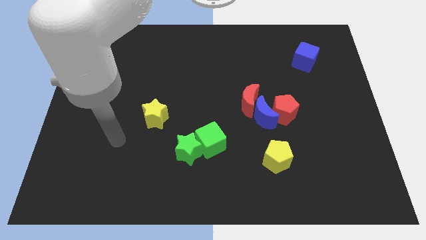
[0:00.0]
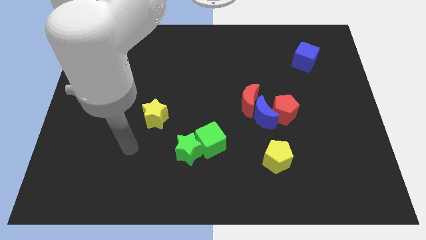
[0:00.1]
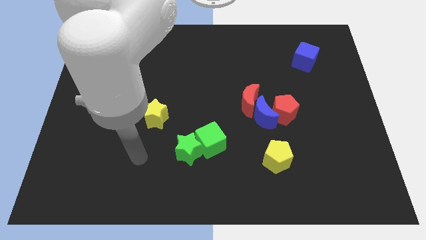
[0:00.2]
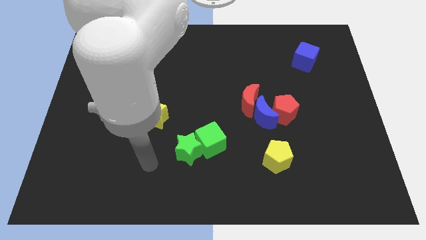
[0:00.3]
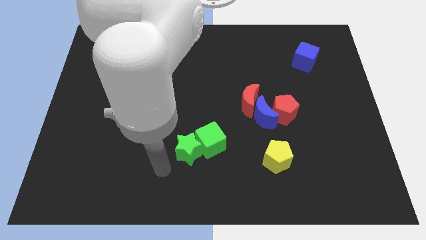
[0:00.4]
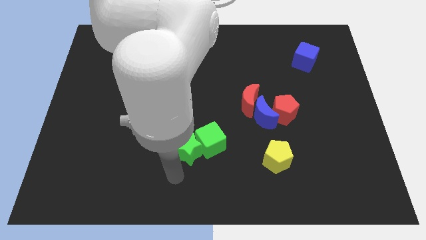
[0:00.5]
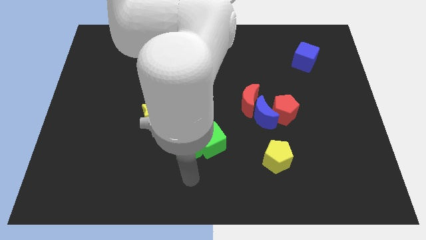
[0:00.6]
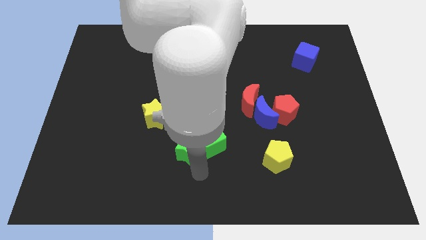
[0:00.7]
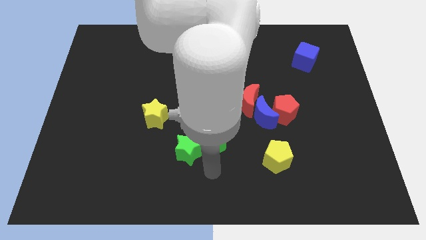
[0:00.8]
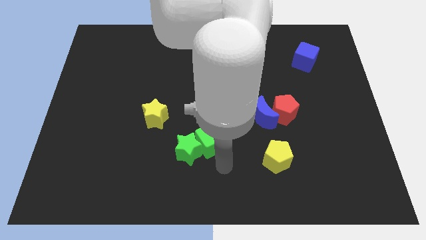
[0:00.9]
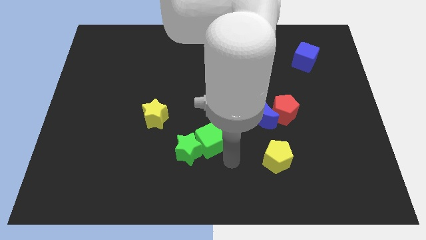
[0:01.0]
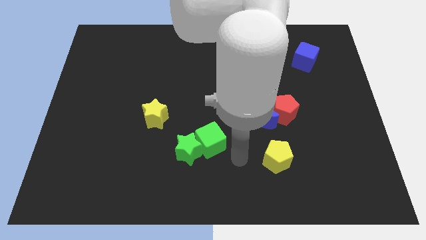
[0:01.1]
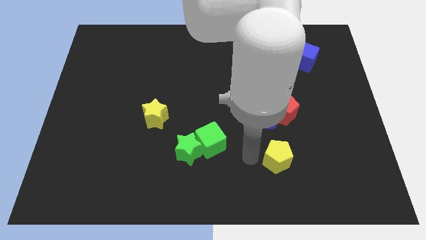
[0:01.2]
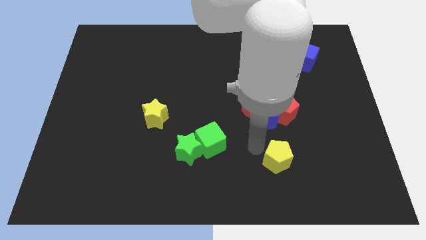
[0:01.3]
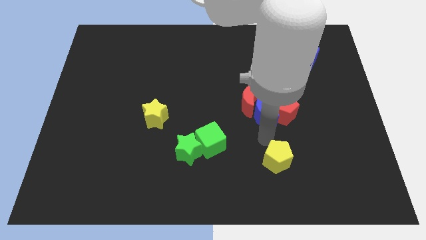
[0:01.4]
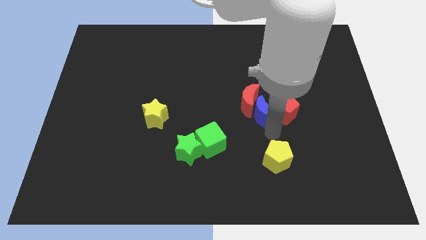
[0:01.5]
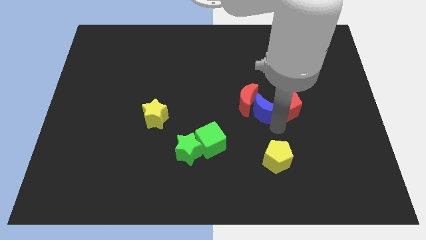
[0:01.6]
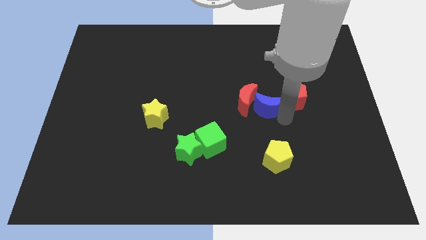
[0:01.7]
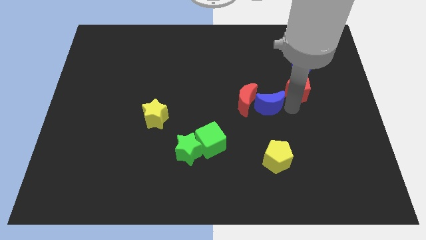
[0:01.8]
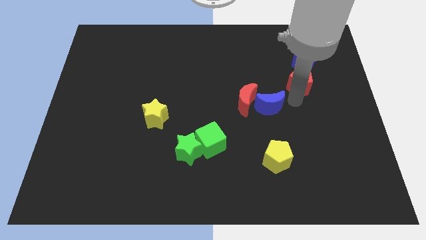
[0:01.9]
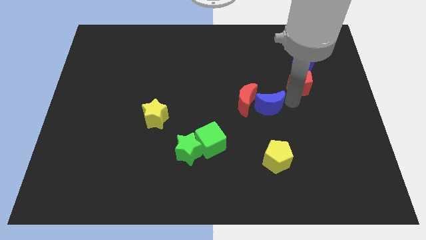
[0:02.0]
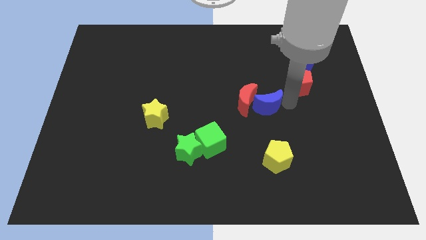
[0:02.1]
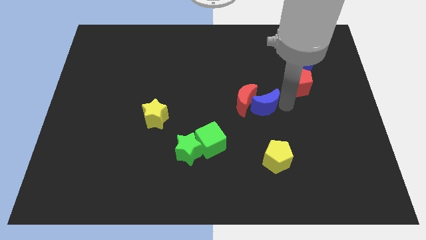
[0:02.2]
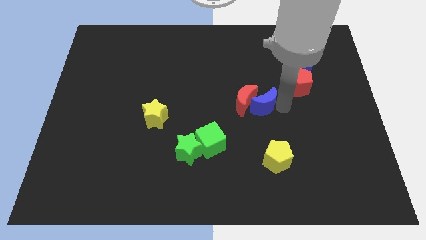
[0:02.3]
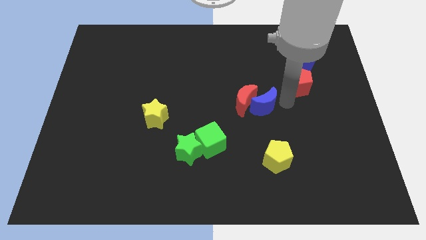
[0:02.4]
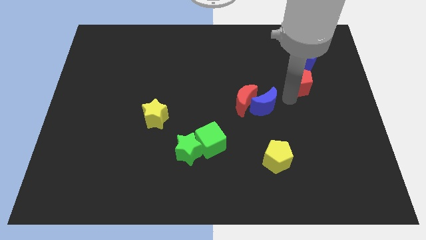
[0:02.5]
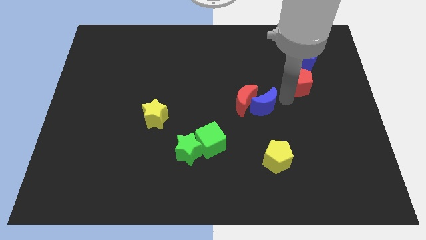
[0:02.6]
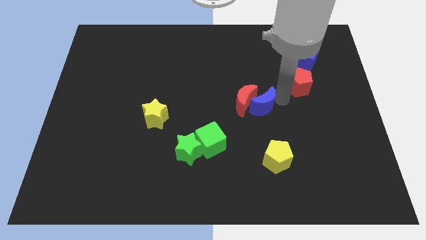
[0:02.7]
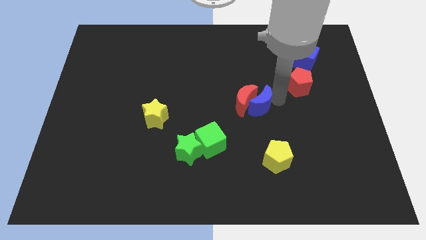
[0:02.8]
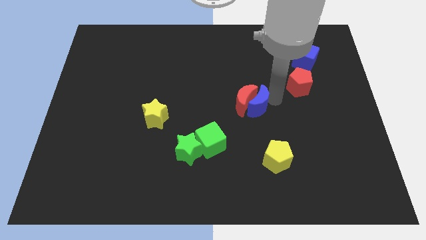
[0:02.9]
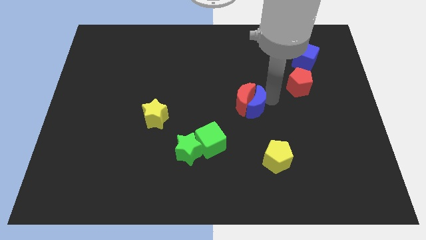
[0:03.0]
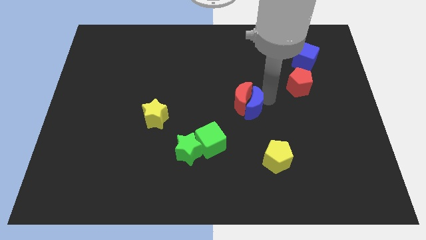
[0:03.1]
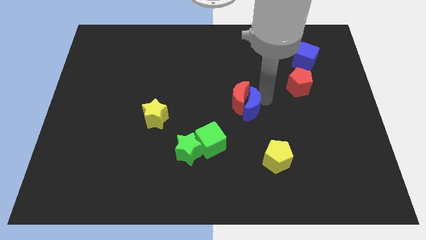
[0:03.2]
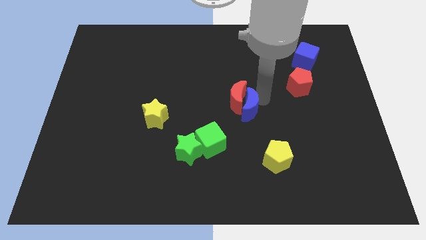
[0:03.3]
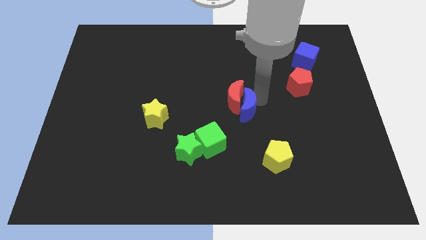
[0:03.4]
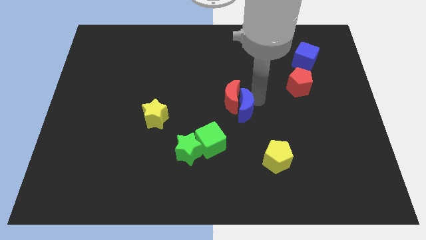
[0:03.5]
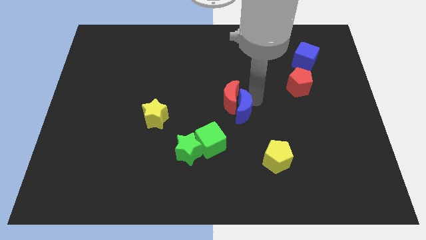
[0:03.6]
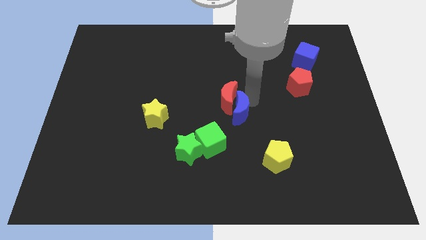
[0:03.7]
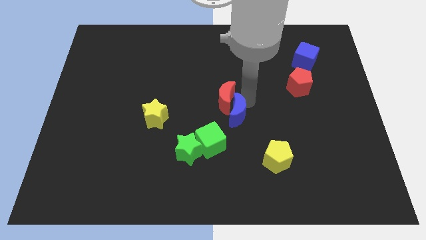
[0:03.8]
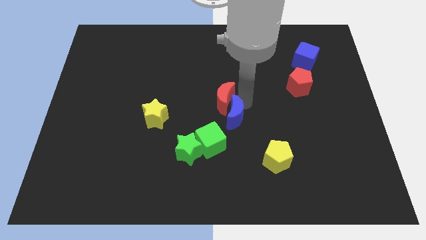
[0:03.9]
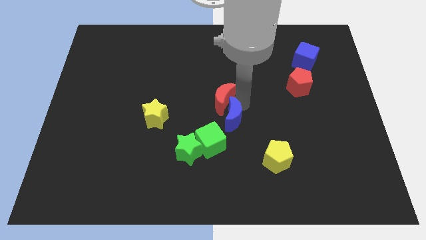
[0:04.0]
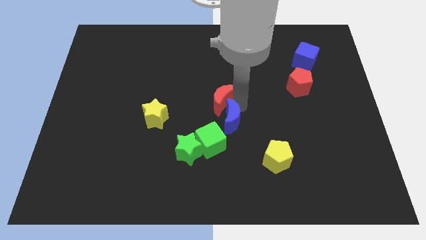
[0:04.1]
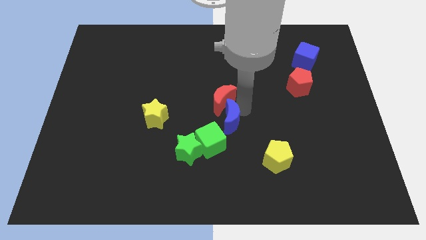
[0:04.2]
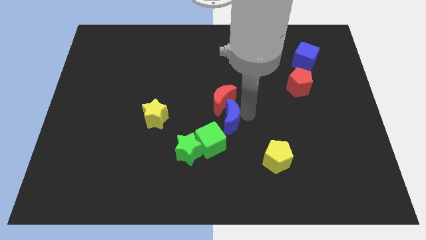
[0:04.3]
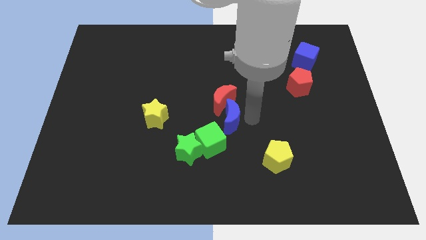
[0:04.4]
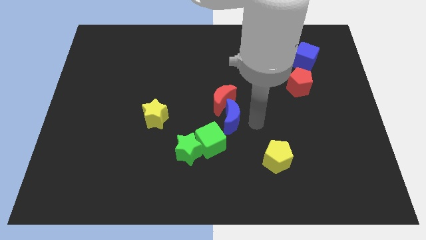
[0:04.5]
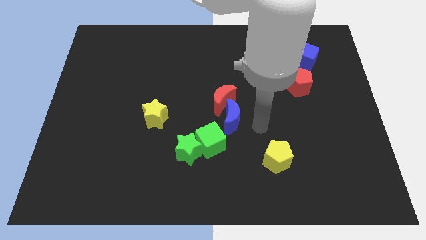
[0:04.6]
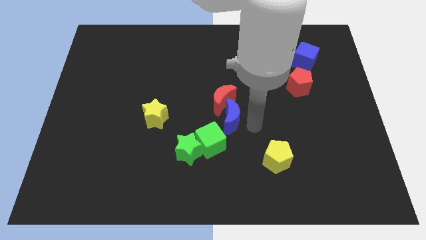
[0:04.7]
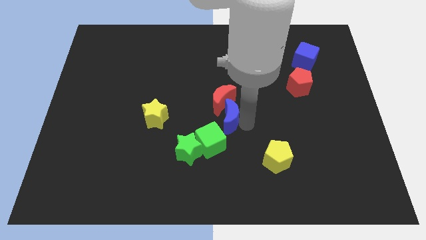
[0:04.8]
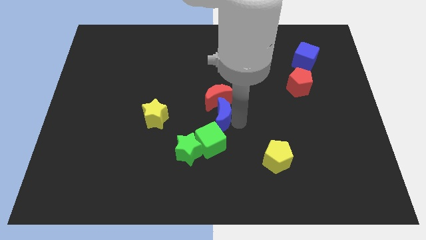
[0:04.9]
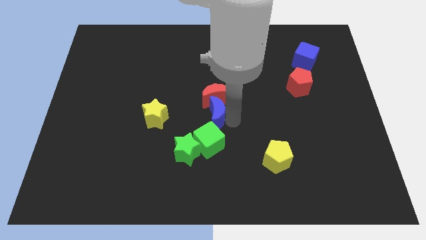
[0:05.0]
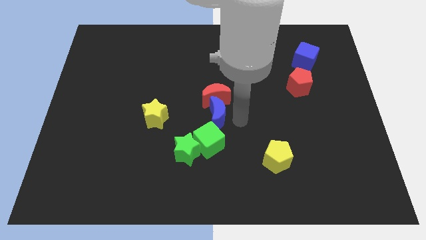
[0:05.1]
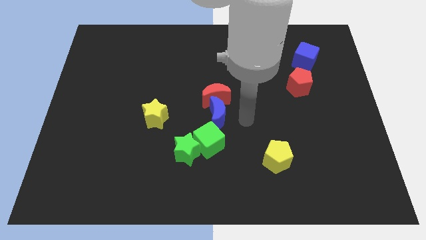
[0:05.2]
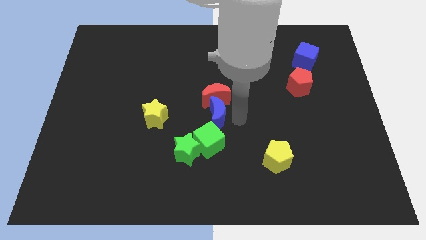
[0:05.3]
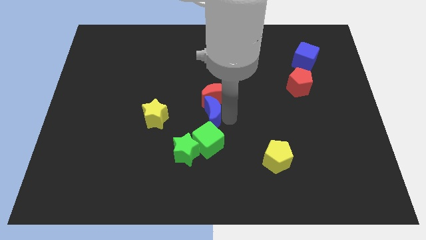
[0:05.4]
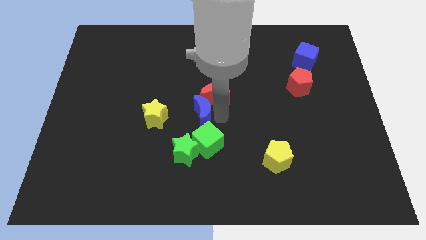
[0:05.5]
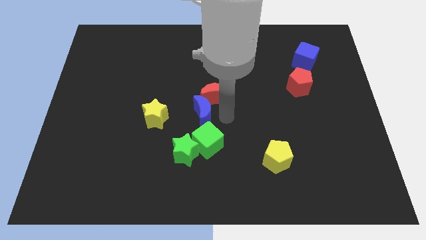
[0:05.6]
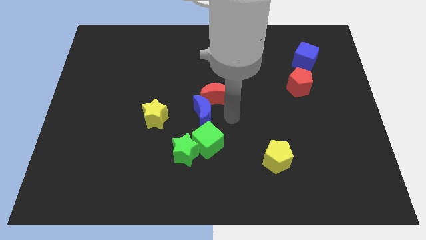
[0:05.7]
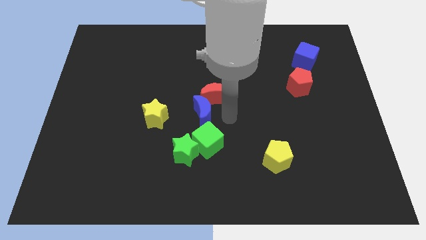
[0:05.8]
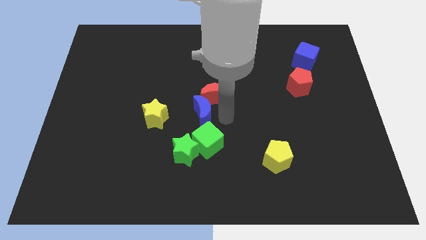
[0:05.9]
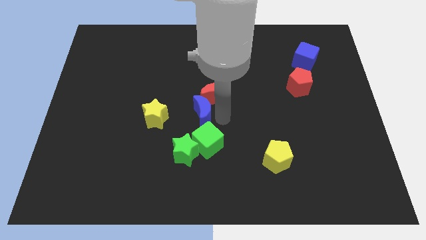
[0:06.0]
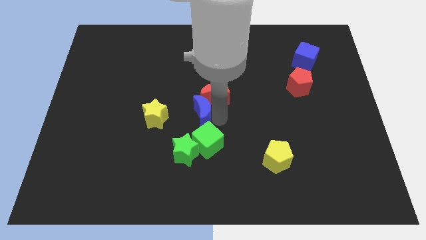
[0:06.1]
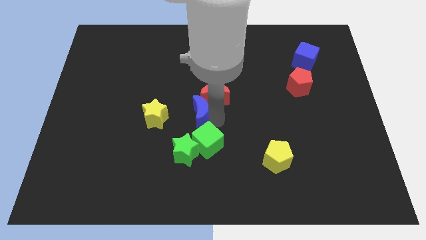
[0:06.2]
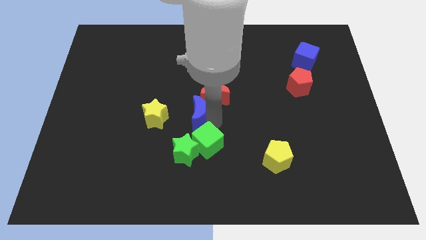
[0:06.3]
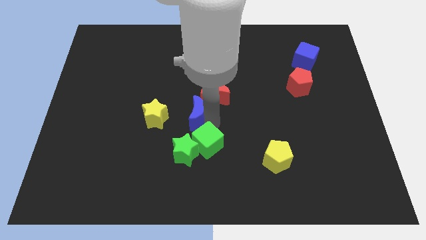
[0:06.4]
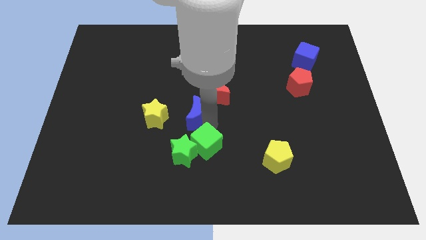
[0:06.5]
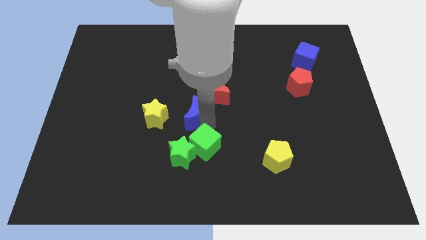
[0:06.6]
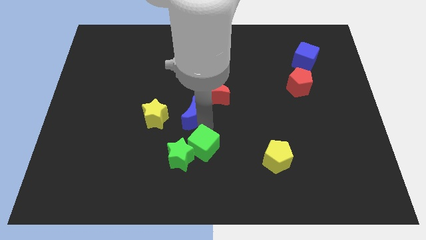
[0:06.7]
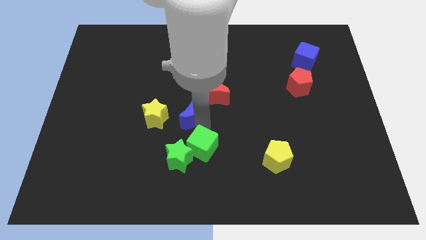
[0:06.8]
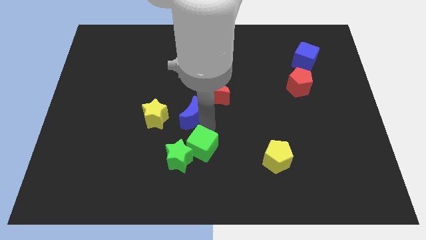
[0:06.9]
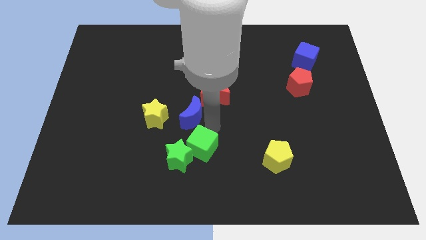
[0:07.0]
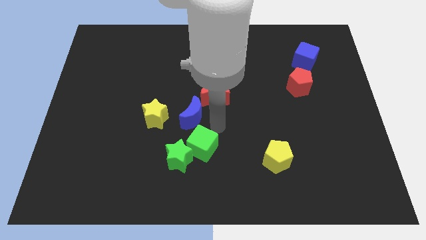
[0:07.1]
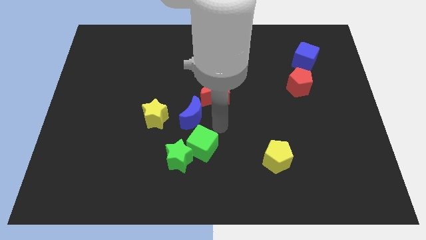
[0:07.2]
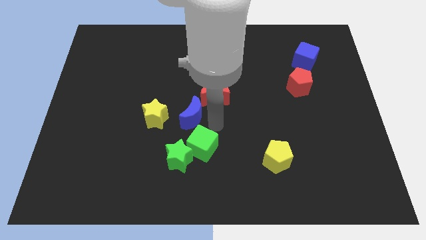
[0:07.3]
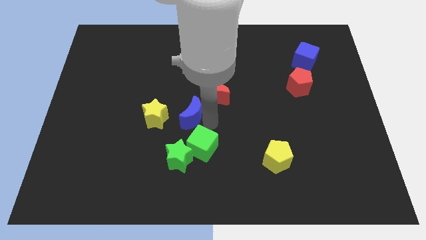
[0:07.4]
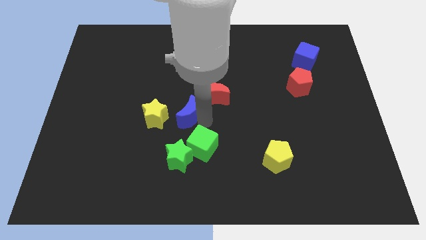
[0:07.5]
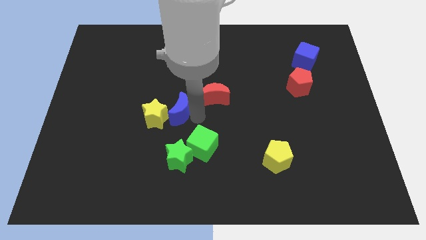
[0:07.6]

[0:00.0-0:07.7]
put the blue moon towards the yellow star
